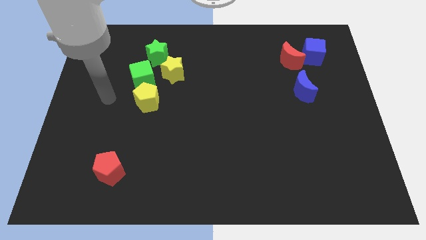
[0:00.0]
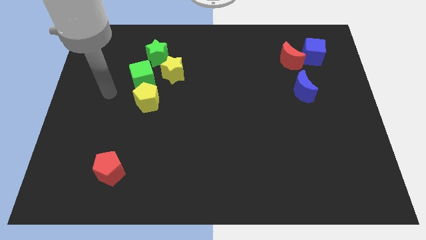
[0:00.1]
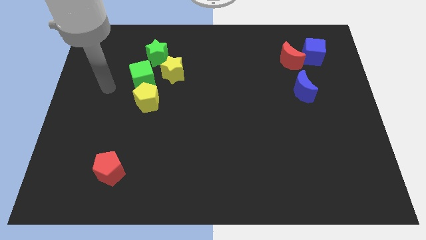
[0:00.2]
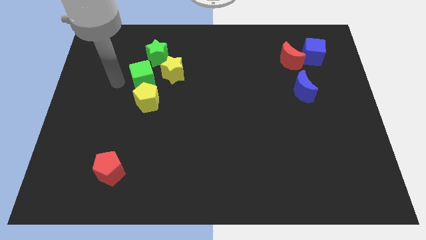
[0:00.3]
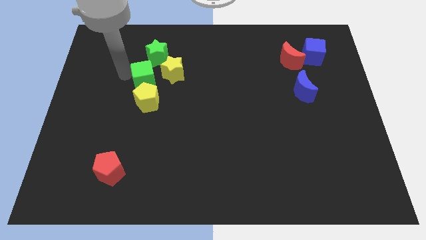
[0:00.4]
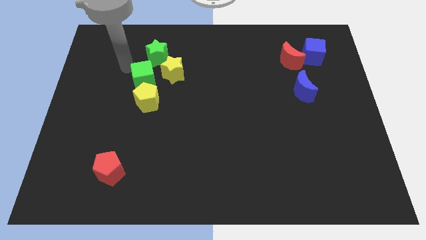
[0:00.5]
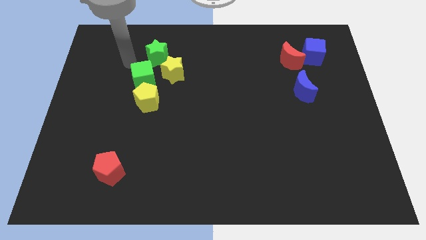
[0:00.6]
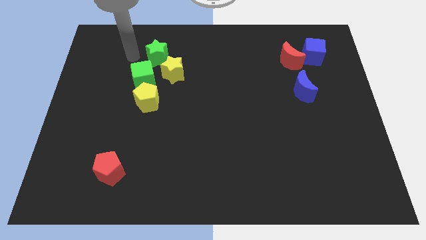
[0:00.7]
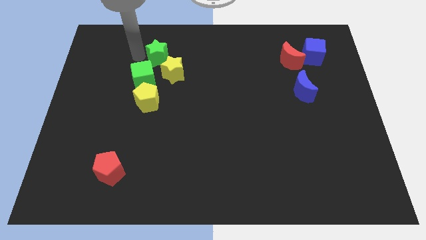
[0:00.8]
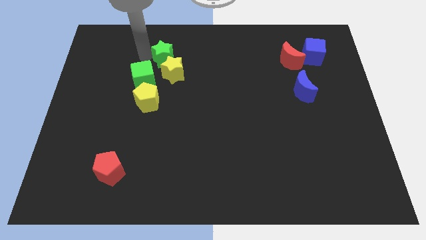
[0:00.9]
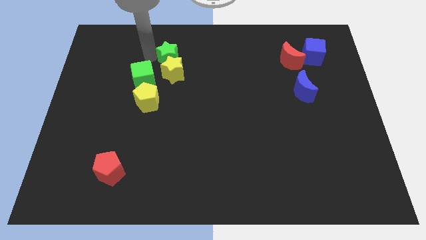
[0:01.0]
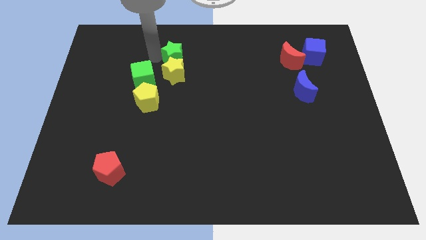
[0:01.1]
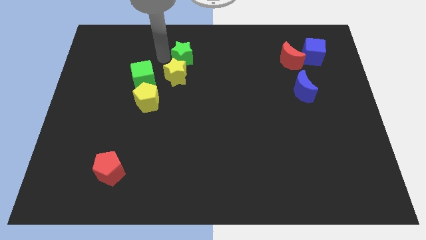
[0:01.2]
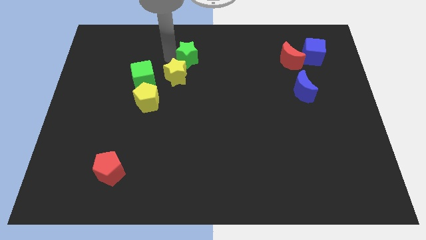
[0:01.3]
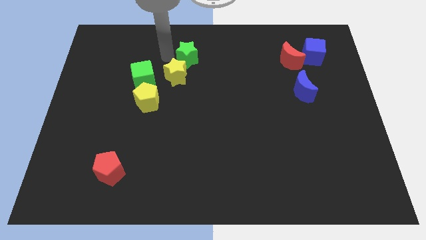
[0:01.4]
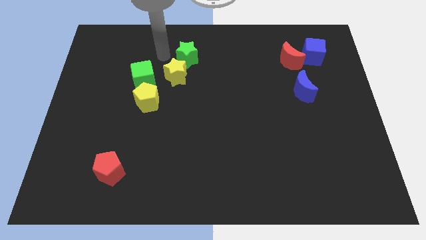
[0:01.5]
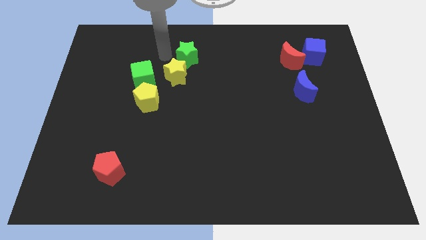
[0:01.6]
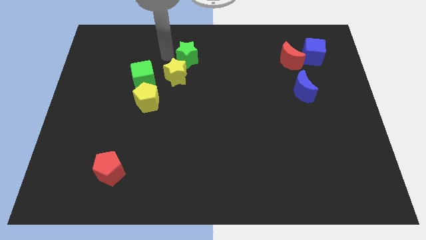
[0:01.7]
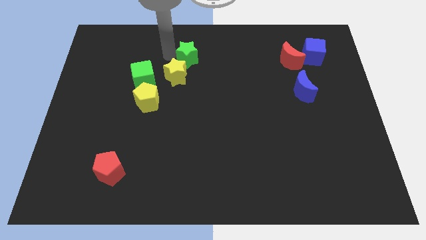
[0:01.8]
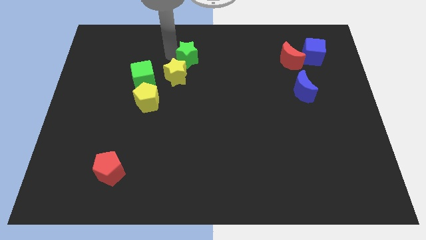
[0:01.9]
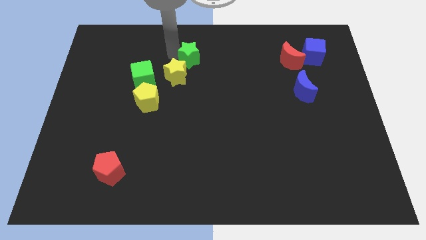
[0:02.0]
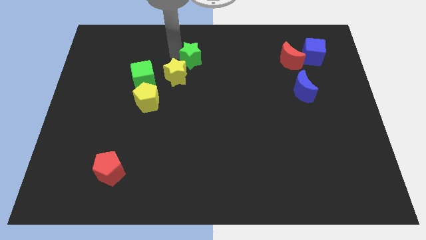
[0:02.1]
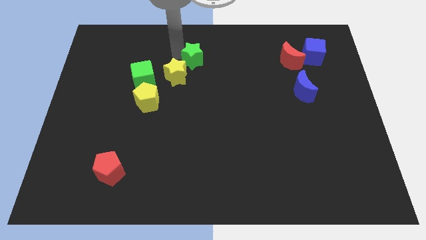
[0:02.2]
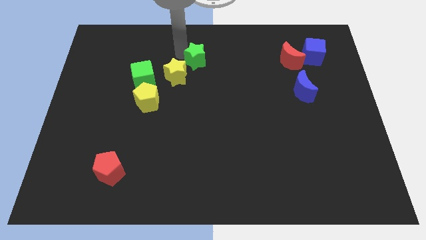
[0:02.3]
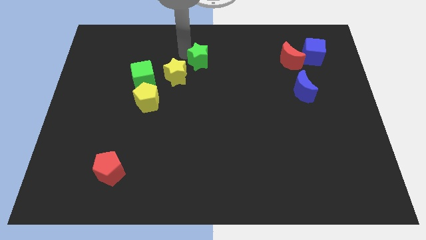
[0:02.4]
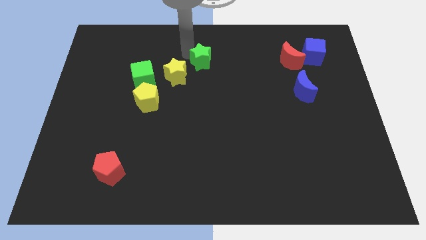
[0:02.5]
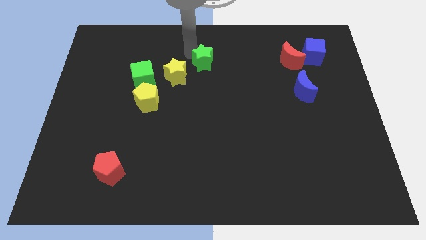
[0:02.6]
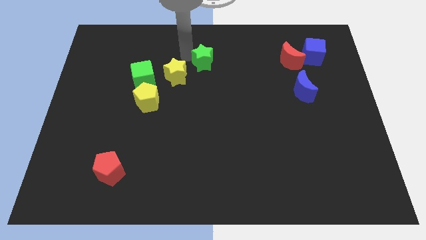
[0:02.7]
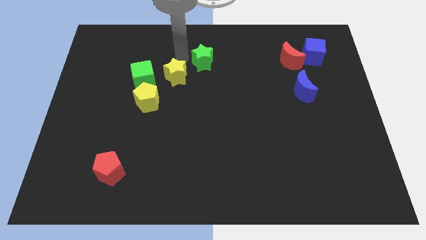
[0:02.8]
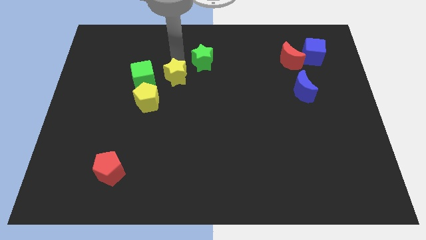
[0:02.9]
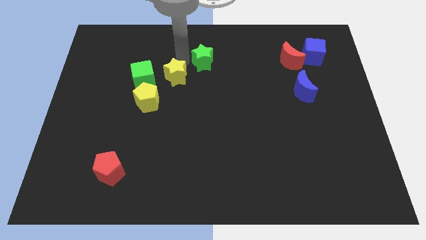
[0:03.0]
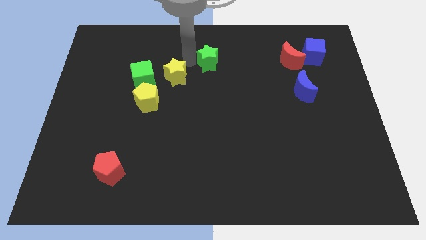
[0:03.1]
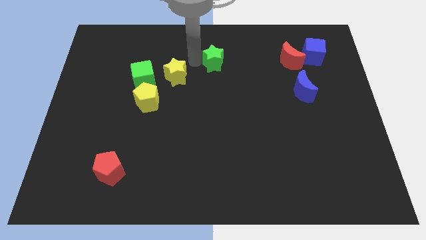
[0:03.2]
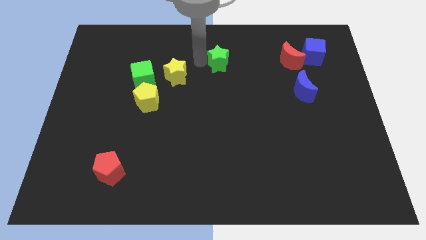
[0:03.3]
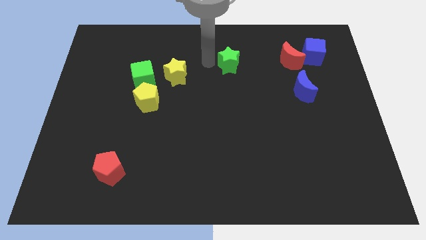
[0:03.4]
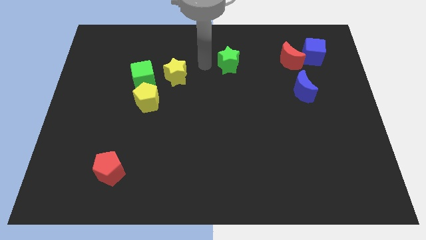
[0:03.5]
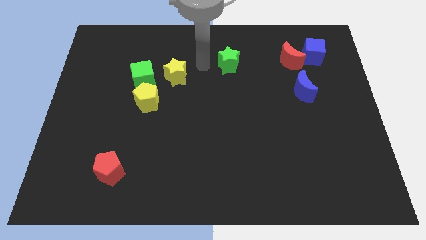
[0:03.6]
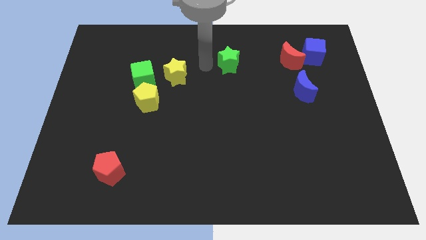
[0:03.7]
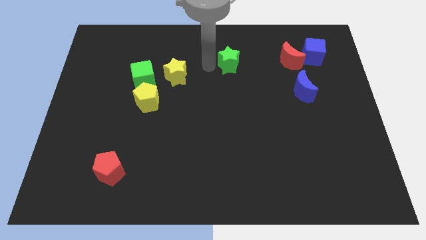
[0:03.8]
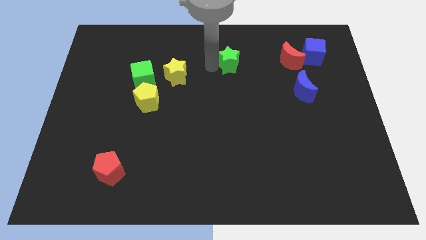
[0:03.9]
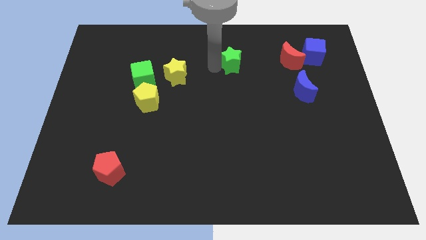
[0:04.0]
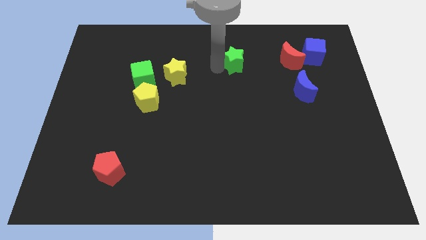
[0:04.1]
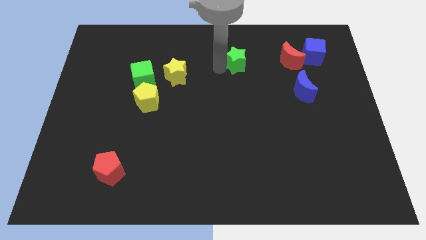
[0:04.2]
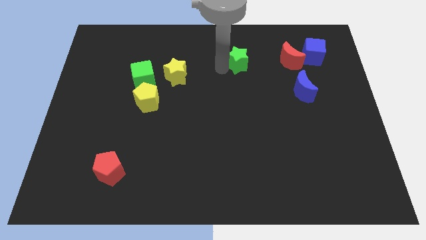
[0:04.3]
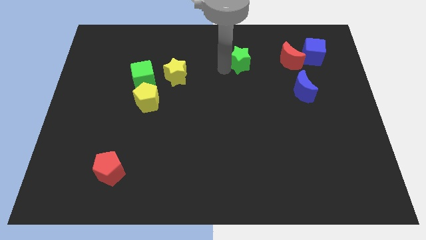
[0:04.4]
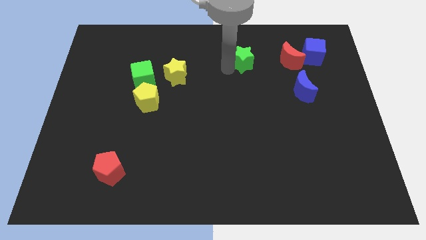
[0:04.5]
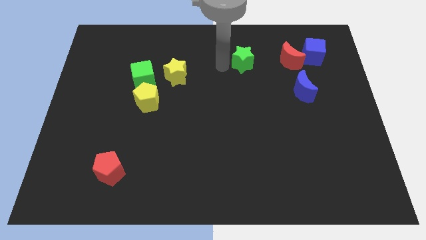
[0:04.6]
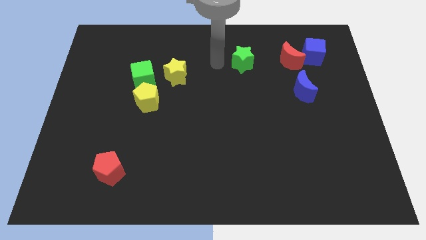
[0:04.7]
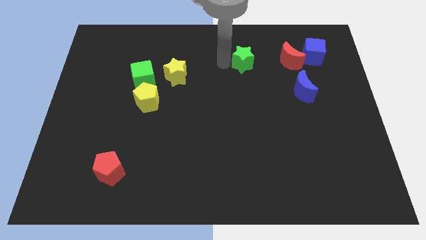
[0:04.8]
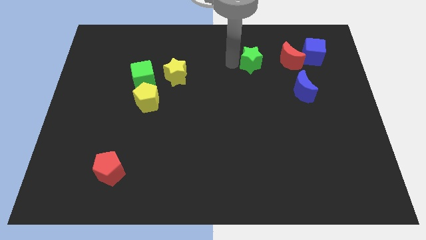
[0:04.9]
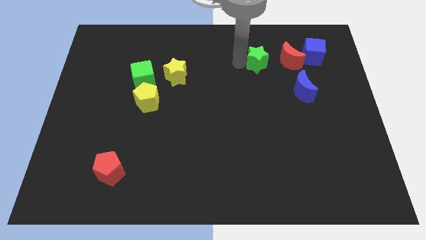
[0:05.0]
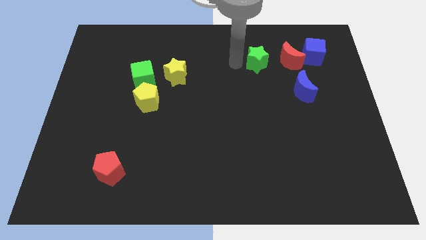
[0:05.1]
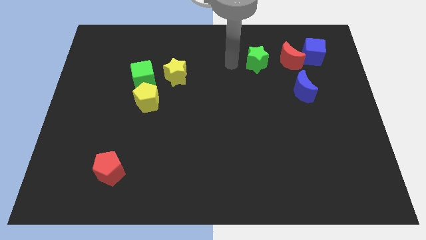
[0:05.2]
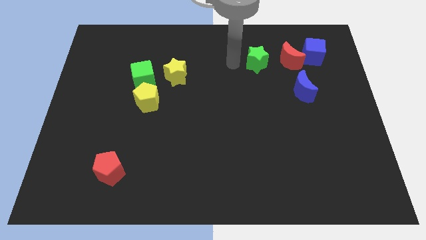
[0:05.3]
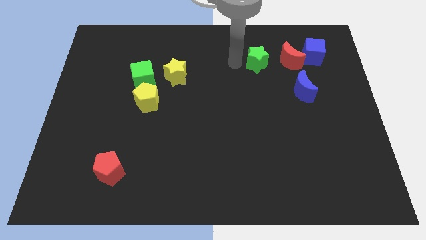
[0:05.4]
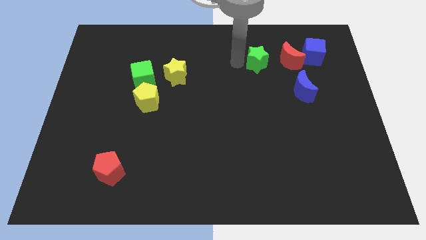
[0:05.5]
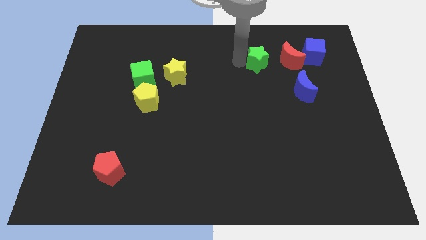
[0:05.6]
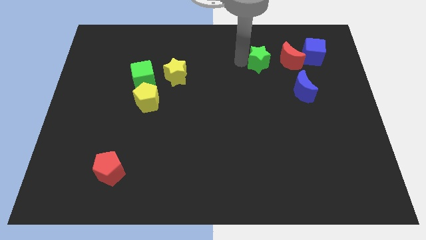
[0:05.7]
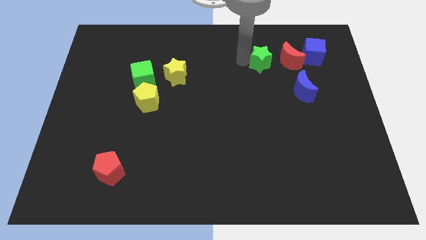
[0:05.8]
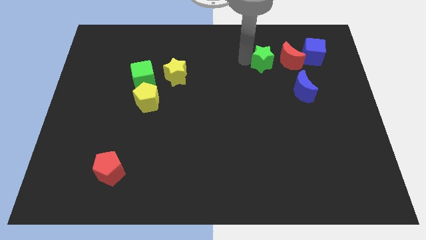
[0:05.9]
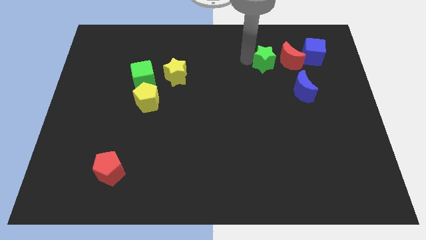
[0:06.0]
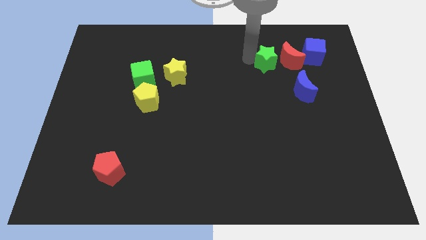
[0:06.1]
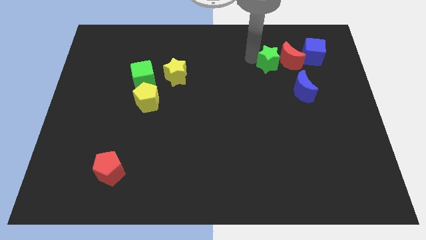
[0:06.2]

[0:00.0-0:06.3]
move the green star next to the red moon

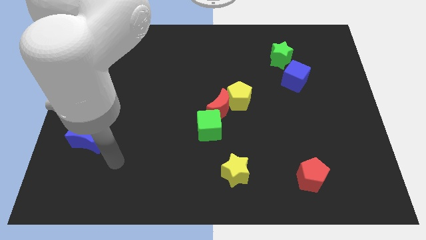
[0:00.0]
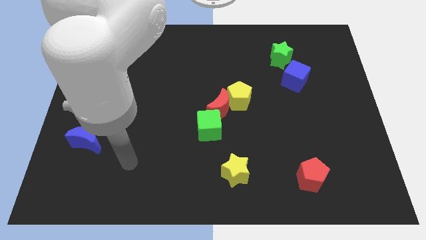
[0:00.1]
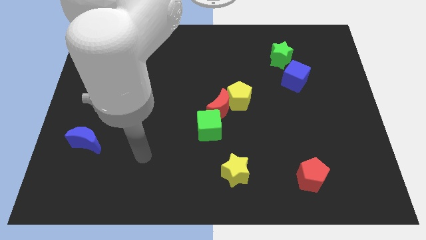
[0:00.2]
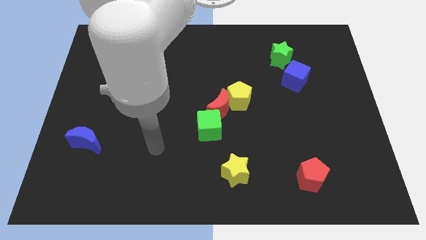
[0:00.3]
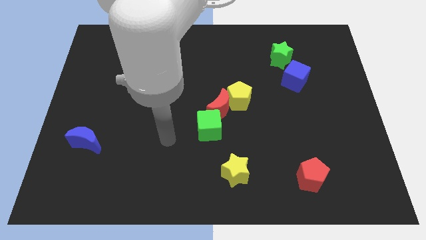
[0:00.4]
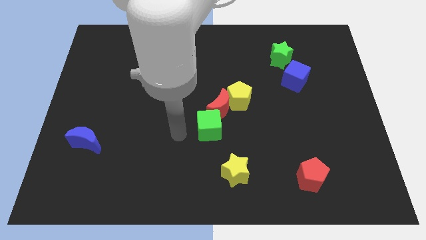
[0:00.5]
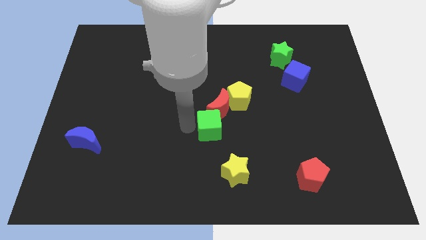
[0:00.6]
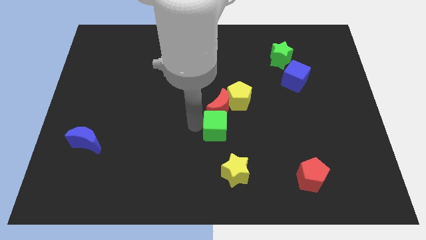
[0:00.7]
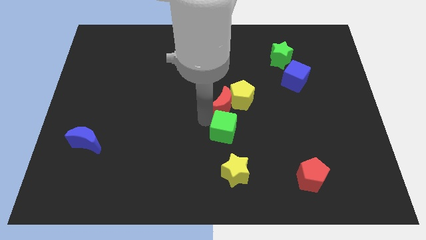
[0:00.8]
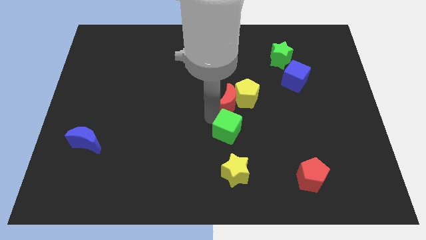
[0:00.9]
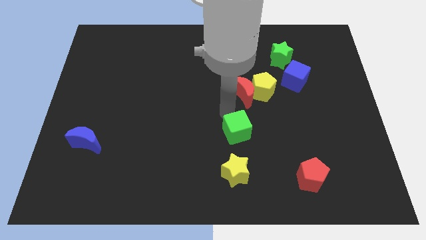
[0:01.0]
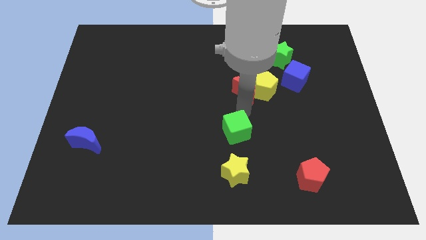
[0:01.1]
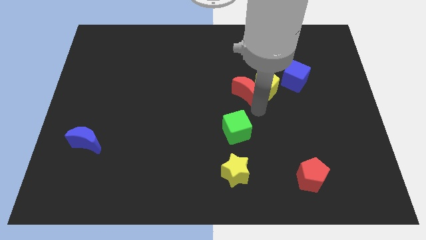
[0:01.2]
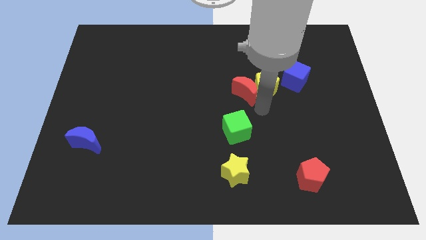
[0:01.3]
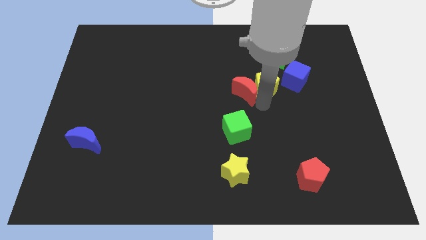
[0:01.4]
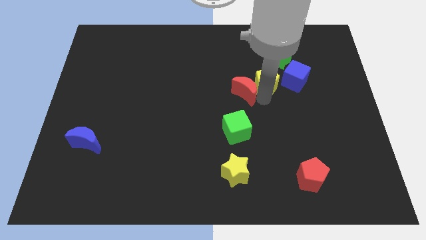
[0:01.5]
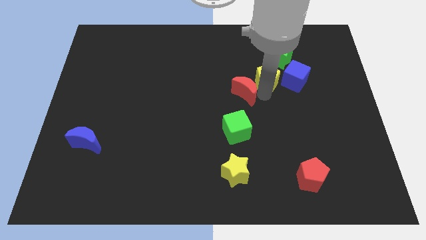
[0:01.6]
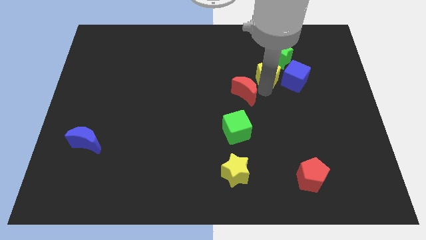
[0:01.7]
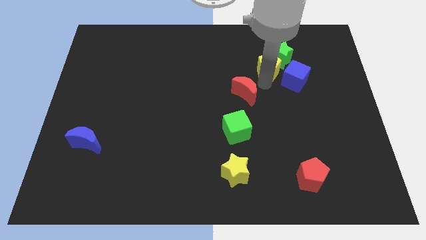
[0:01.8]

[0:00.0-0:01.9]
slide the yellow pentagon close to the green star
